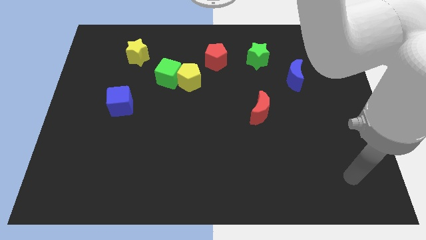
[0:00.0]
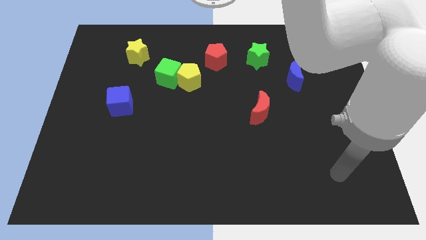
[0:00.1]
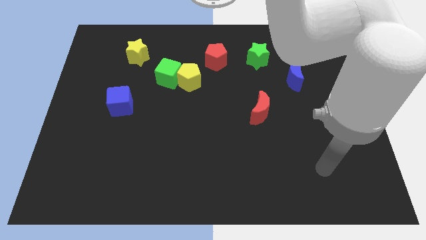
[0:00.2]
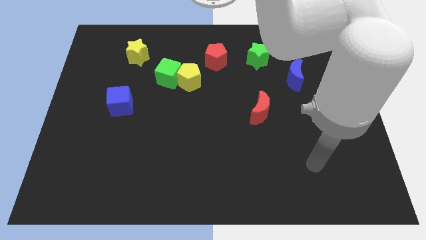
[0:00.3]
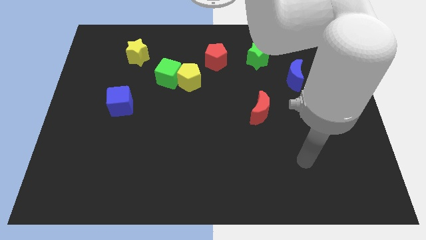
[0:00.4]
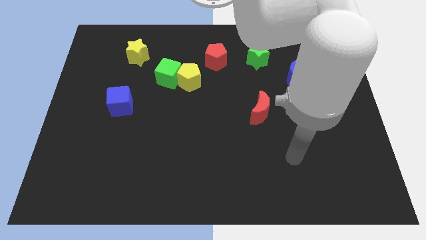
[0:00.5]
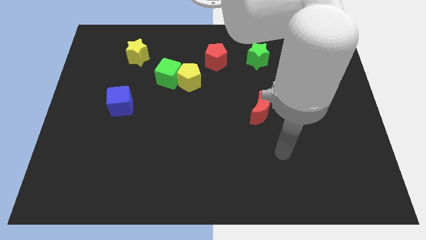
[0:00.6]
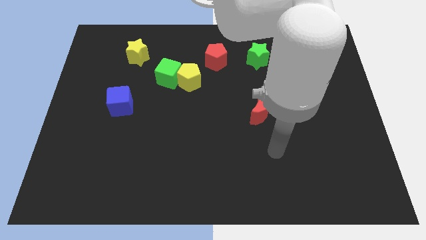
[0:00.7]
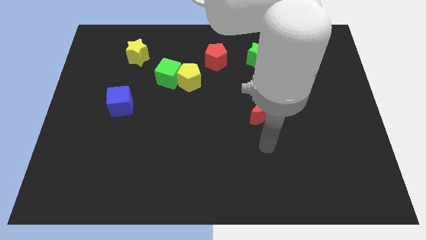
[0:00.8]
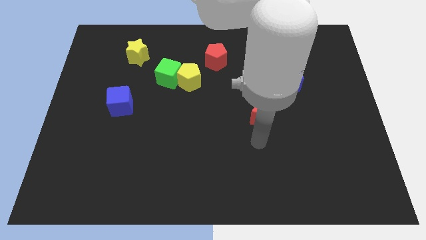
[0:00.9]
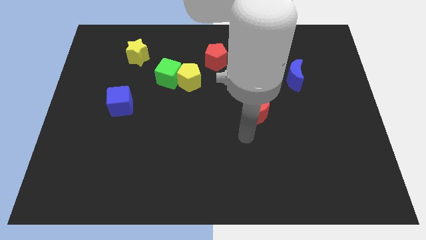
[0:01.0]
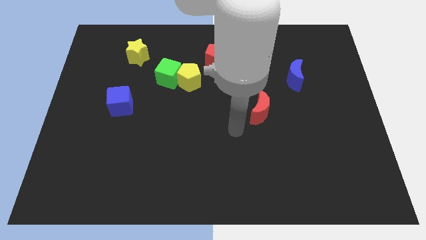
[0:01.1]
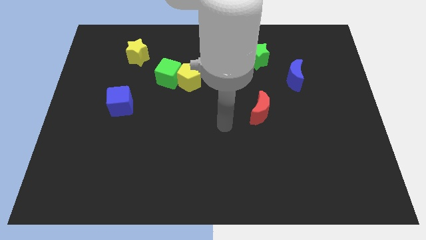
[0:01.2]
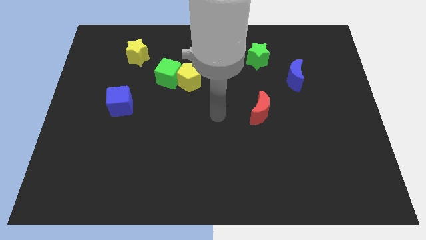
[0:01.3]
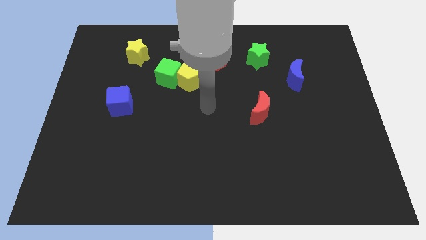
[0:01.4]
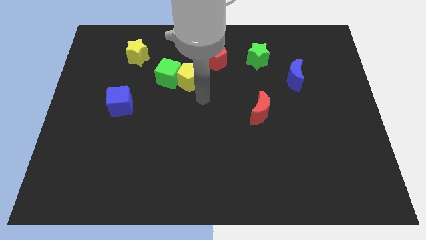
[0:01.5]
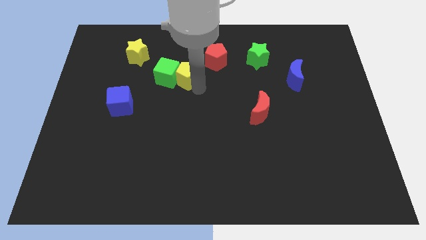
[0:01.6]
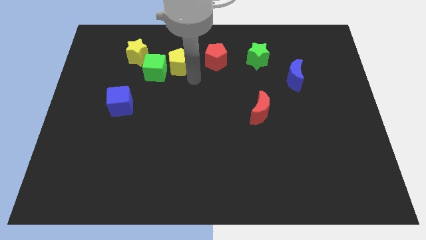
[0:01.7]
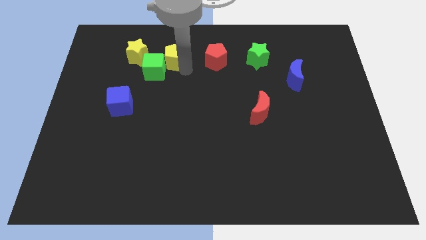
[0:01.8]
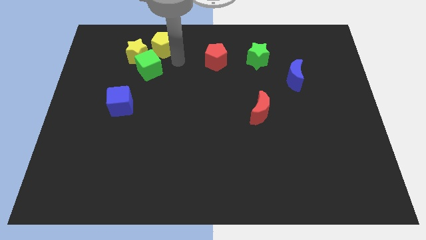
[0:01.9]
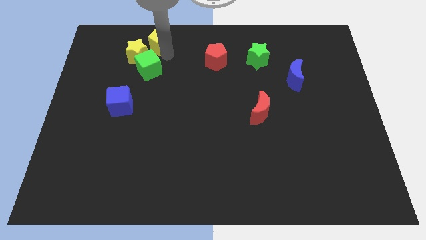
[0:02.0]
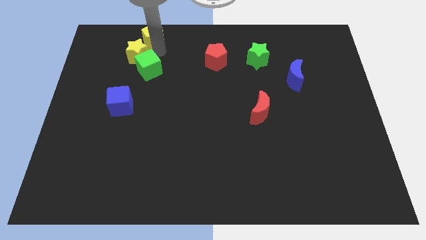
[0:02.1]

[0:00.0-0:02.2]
pull the green cube apart from the yellow pentagon

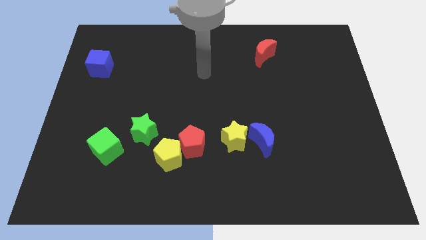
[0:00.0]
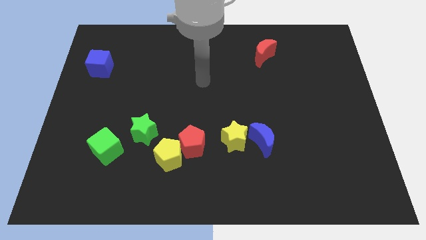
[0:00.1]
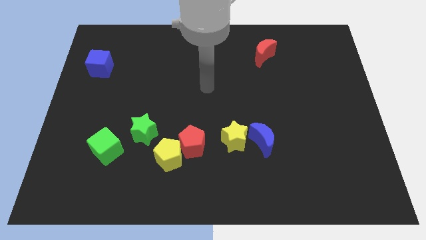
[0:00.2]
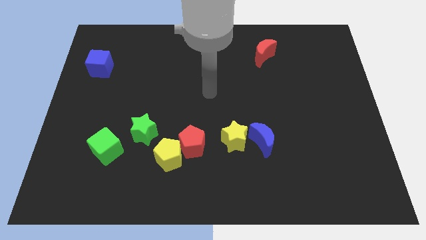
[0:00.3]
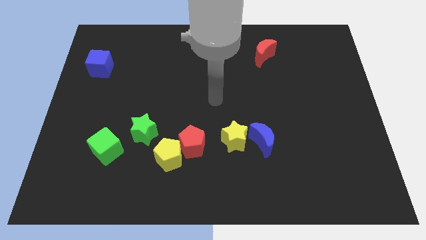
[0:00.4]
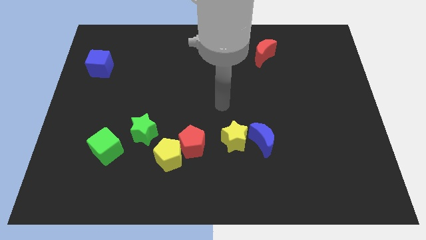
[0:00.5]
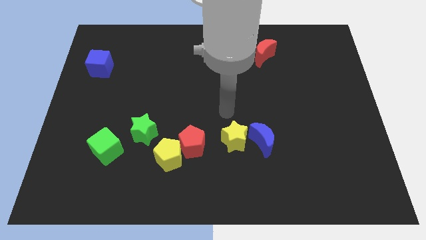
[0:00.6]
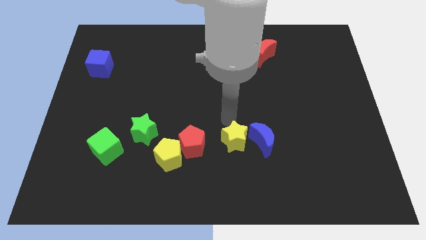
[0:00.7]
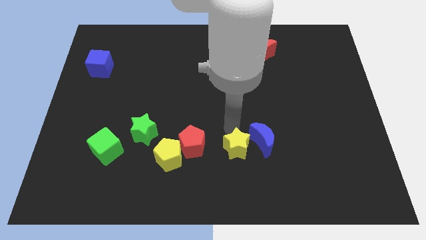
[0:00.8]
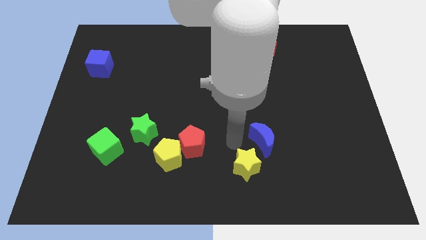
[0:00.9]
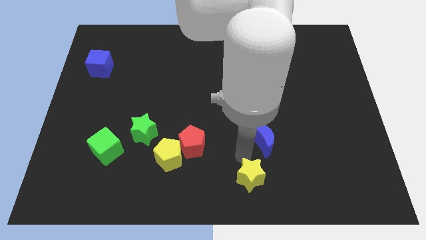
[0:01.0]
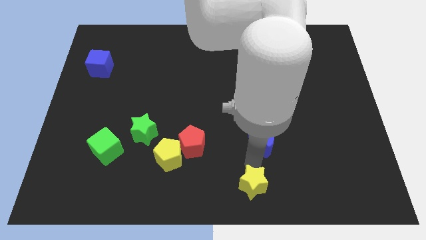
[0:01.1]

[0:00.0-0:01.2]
pull the blue moon apart from the yellow star

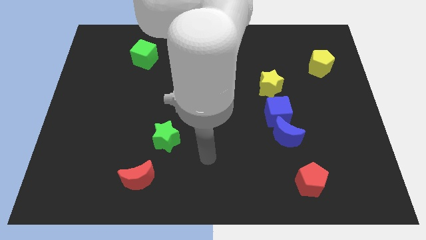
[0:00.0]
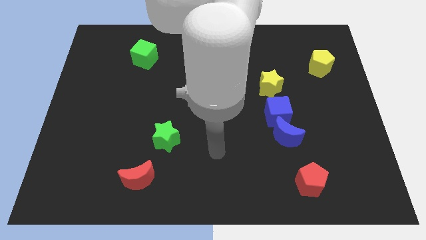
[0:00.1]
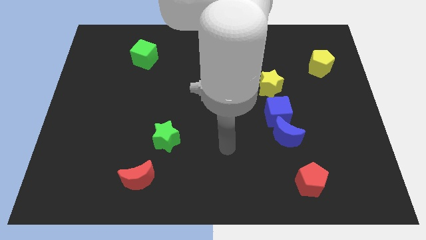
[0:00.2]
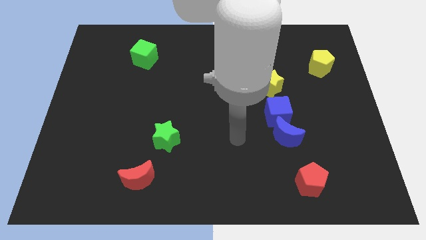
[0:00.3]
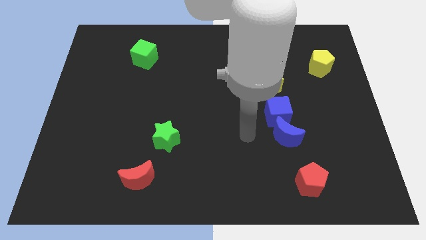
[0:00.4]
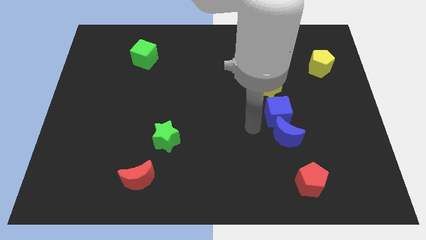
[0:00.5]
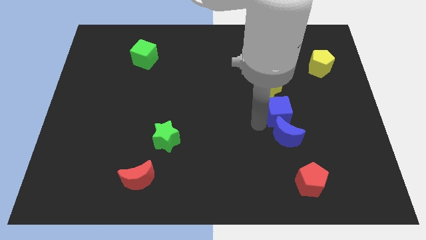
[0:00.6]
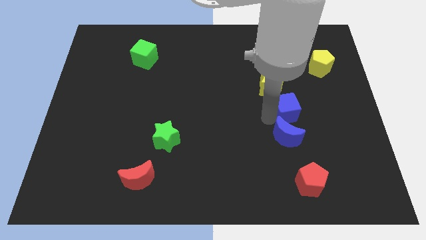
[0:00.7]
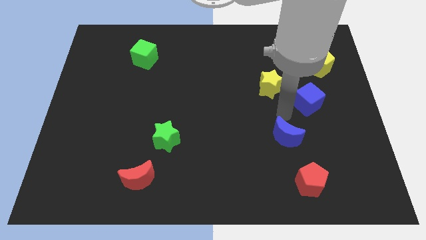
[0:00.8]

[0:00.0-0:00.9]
pull the blue moon apart from the blue cube

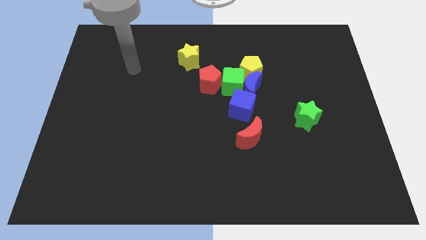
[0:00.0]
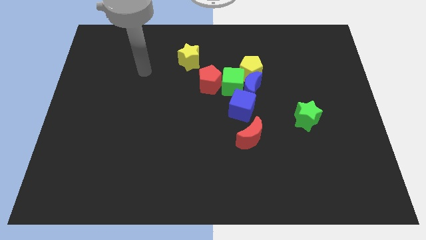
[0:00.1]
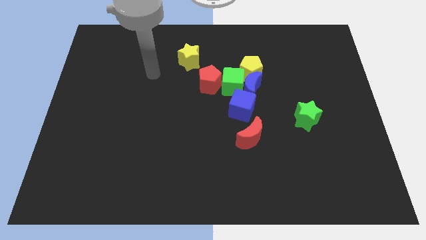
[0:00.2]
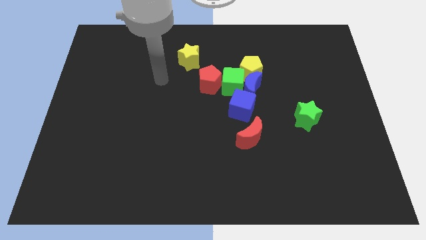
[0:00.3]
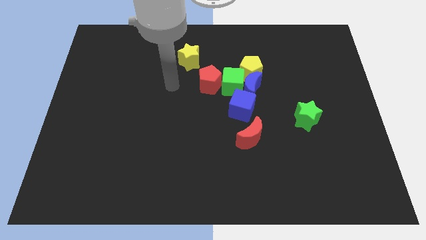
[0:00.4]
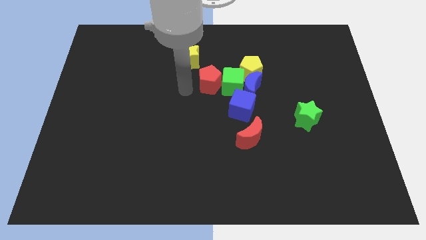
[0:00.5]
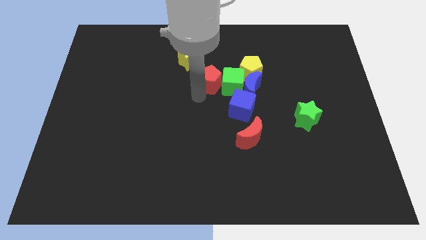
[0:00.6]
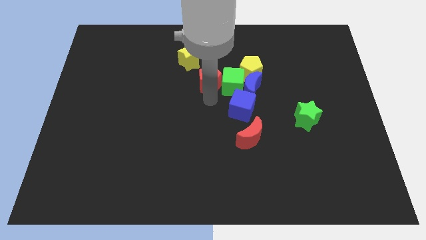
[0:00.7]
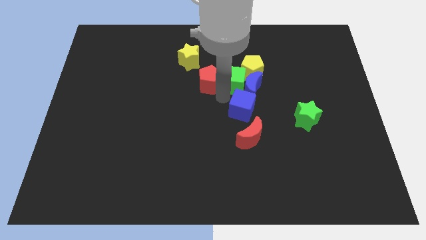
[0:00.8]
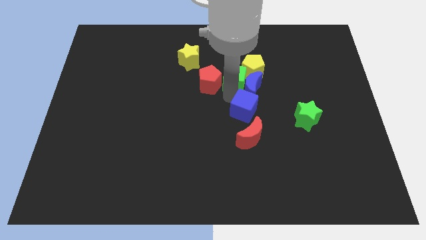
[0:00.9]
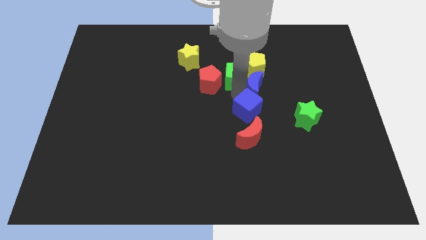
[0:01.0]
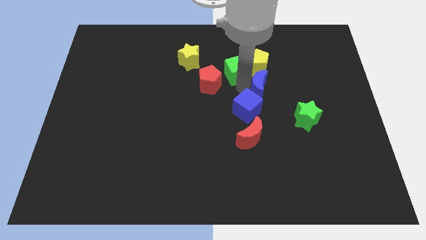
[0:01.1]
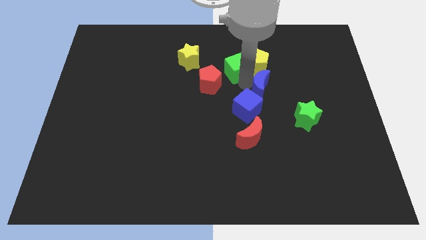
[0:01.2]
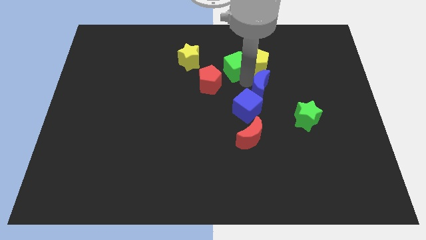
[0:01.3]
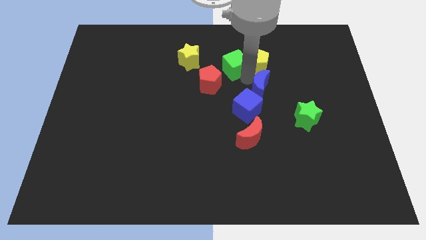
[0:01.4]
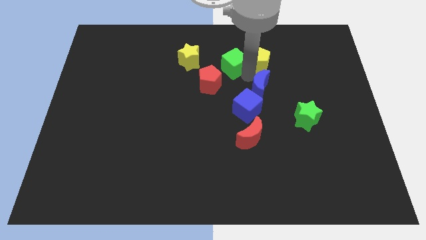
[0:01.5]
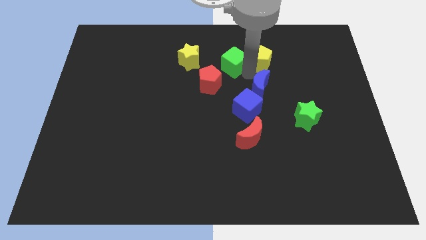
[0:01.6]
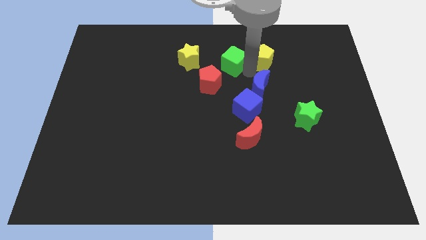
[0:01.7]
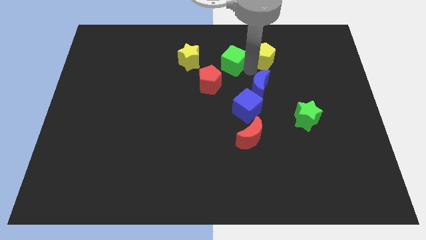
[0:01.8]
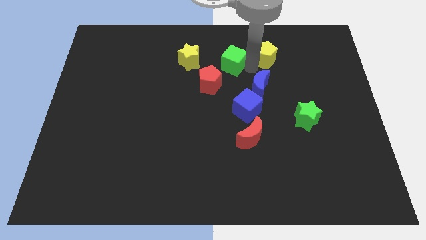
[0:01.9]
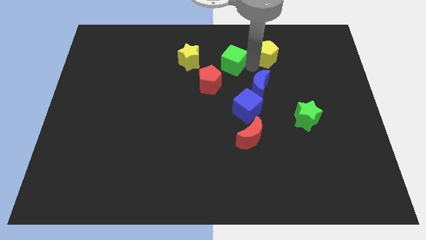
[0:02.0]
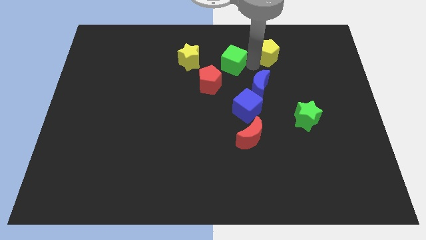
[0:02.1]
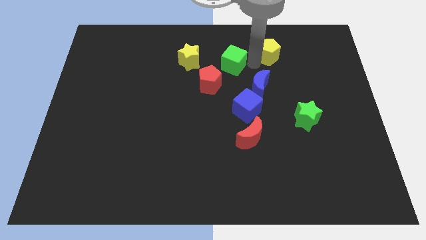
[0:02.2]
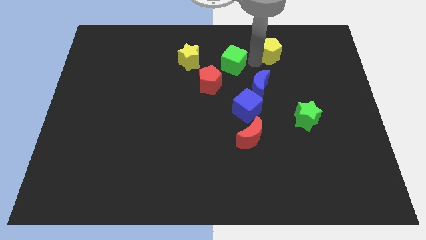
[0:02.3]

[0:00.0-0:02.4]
separate the yellow pentagon from the blue moon and green cube

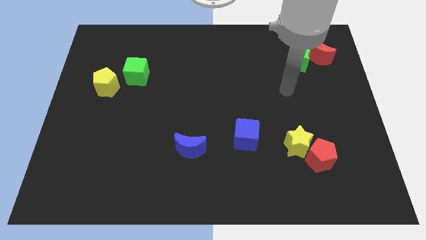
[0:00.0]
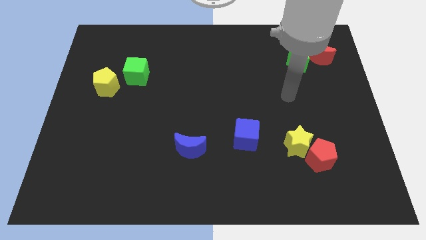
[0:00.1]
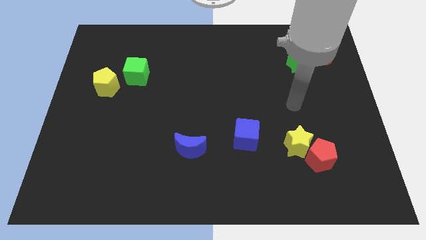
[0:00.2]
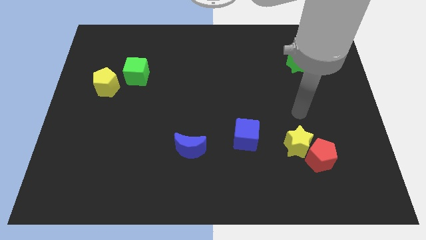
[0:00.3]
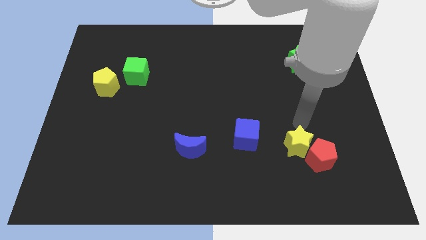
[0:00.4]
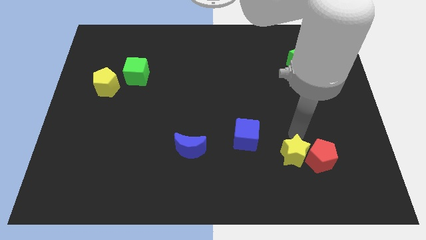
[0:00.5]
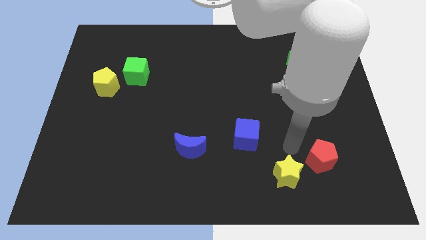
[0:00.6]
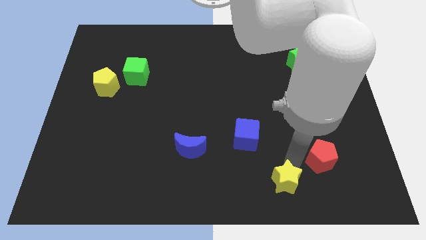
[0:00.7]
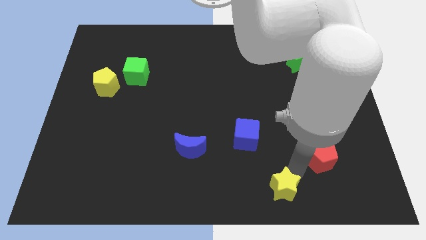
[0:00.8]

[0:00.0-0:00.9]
separate the red pentagon from the yellow star

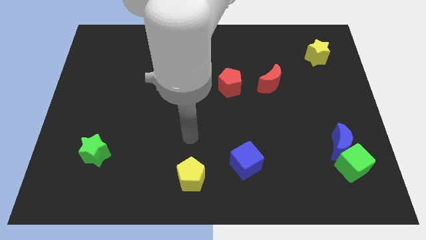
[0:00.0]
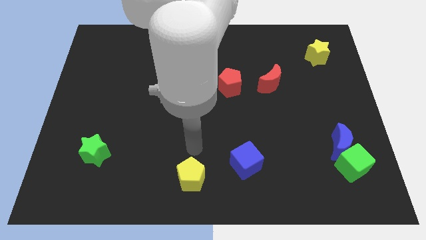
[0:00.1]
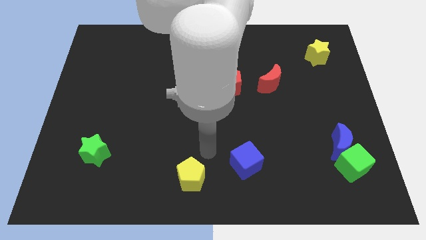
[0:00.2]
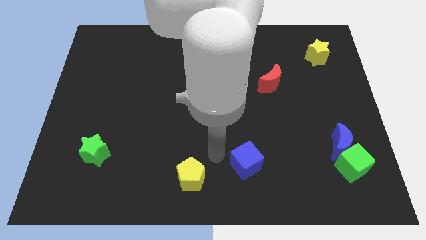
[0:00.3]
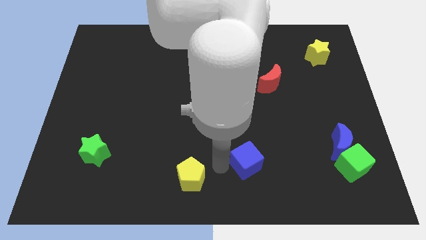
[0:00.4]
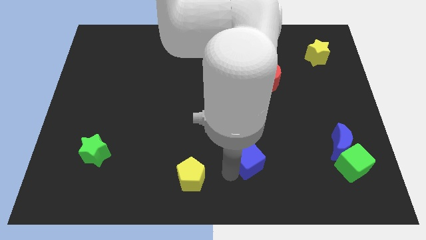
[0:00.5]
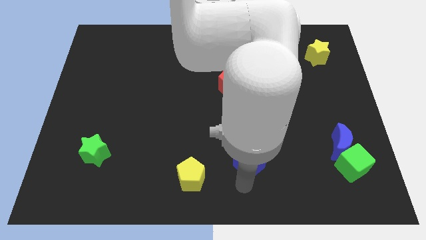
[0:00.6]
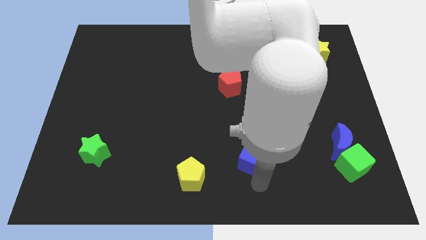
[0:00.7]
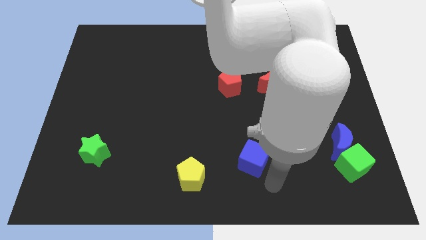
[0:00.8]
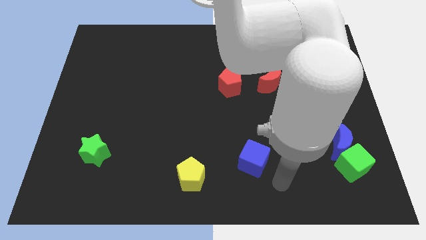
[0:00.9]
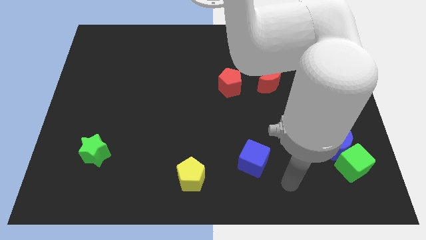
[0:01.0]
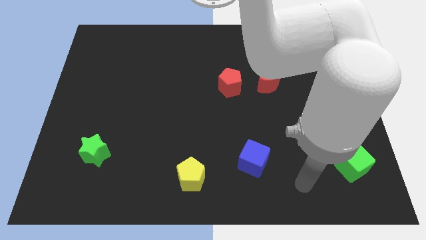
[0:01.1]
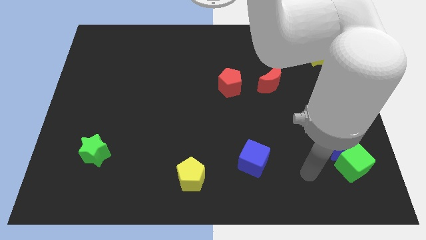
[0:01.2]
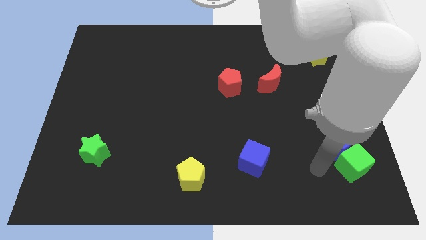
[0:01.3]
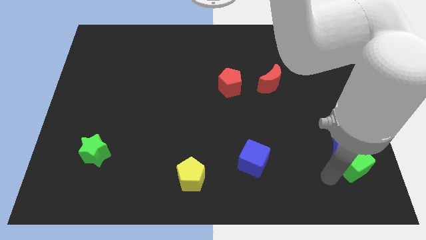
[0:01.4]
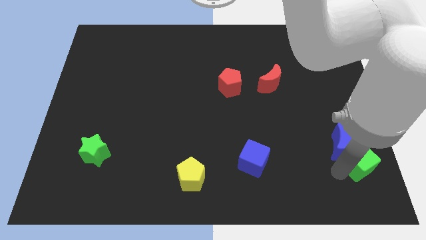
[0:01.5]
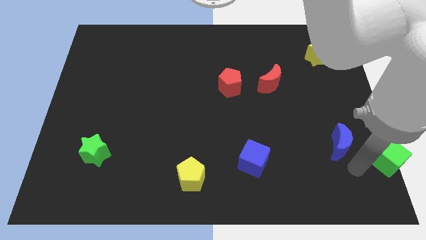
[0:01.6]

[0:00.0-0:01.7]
separate the blue moon from the green cube
